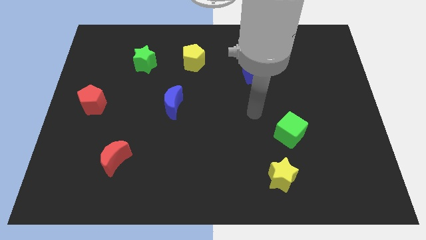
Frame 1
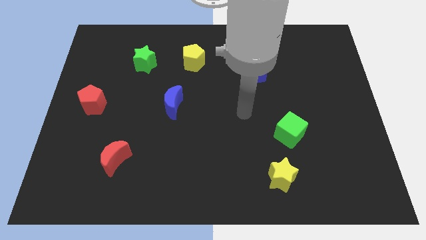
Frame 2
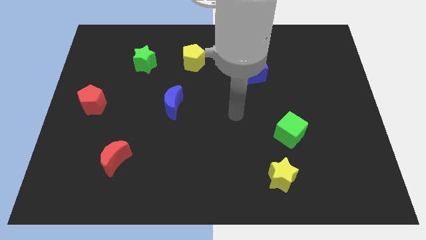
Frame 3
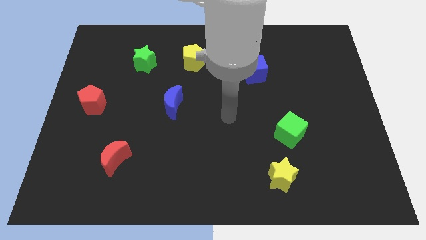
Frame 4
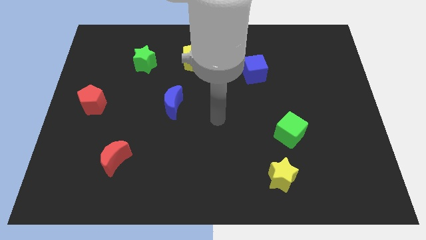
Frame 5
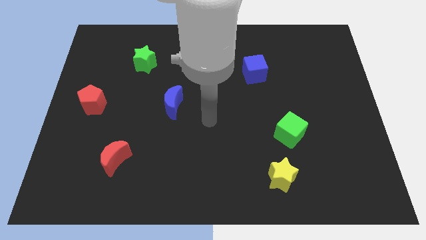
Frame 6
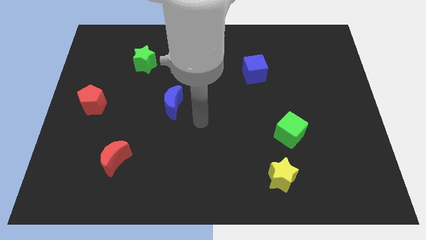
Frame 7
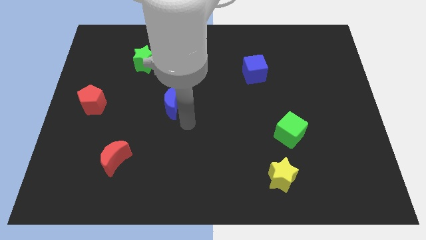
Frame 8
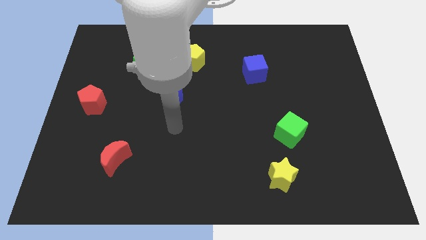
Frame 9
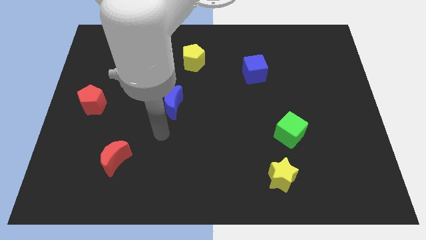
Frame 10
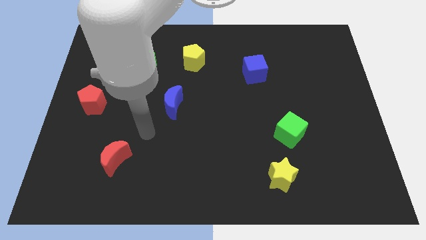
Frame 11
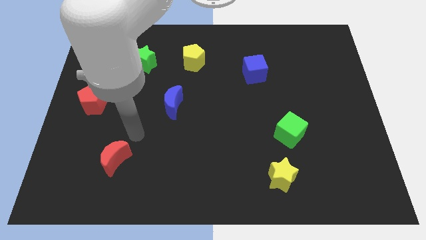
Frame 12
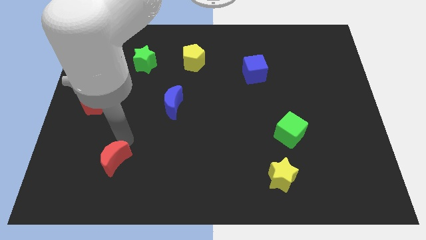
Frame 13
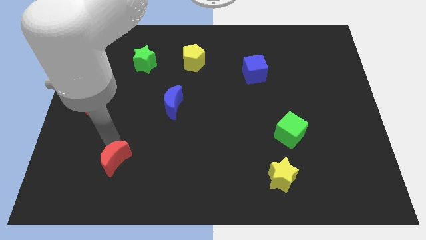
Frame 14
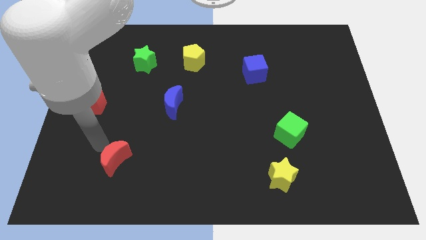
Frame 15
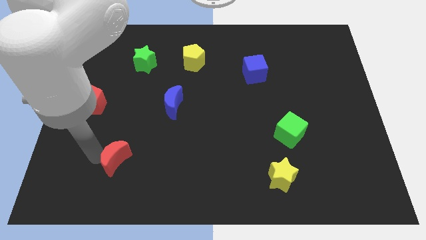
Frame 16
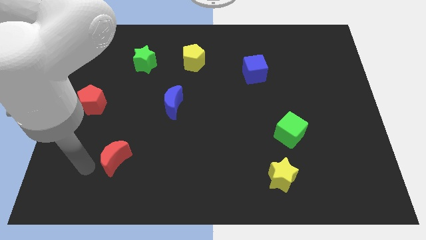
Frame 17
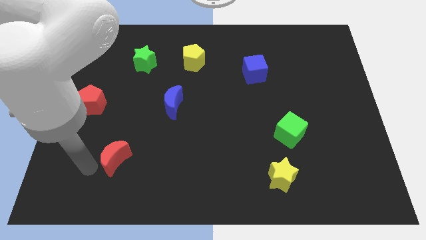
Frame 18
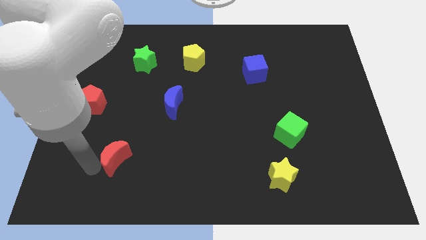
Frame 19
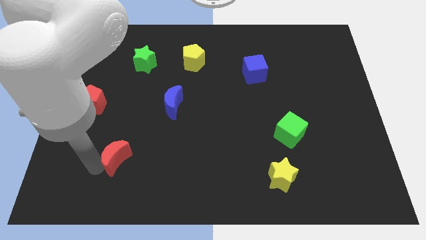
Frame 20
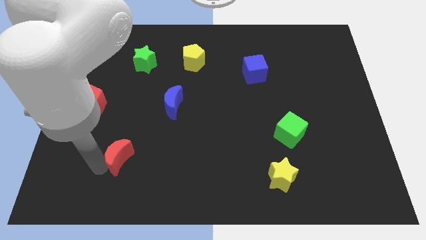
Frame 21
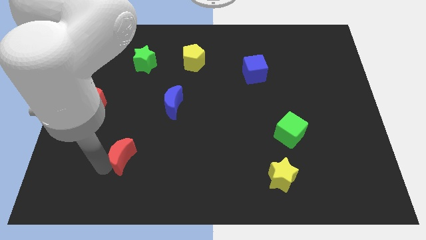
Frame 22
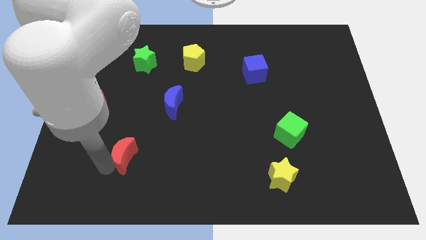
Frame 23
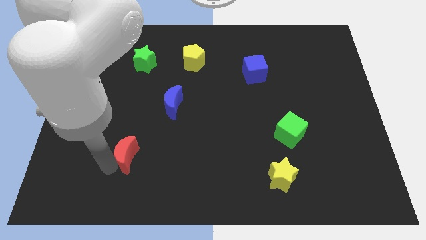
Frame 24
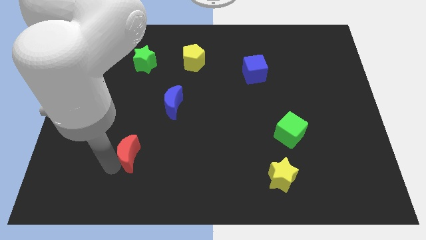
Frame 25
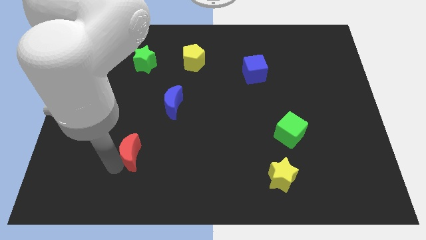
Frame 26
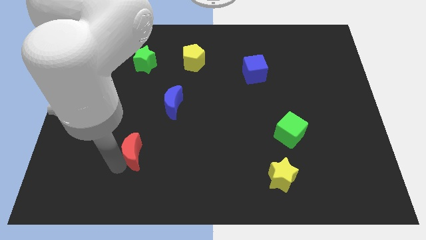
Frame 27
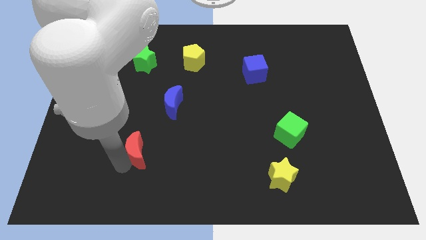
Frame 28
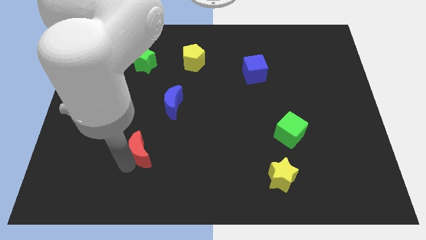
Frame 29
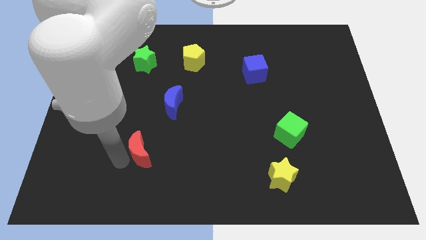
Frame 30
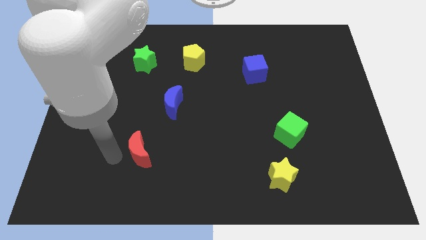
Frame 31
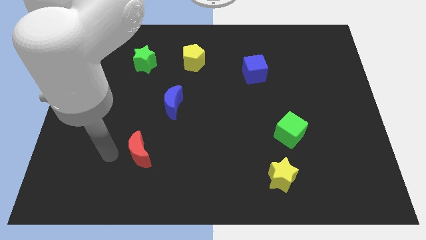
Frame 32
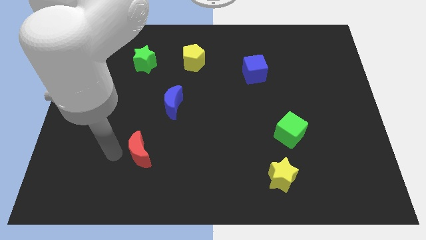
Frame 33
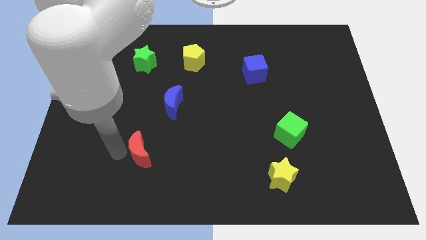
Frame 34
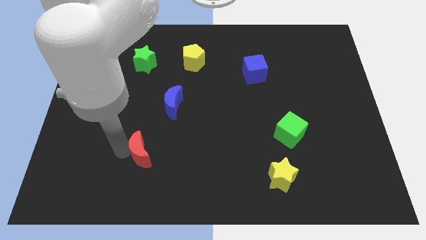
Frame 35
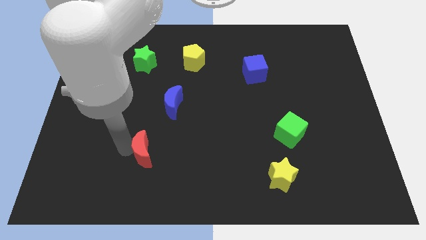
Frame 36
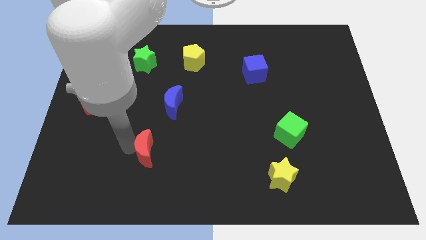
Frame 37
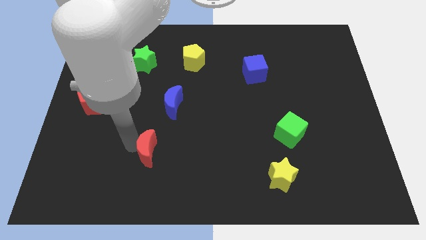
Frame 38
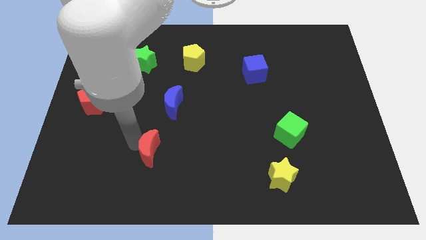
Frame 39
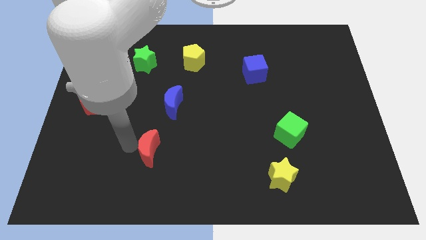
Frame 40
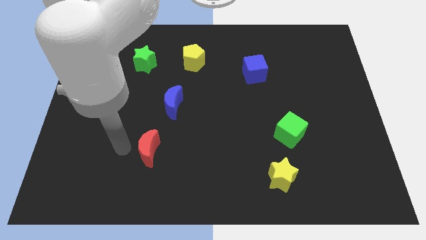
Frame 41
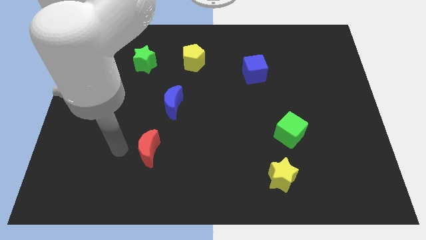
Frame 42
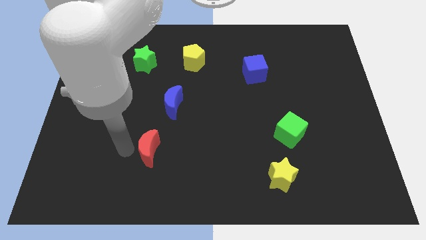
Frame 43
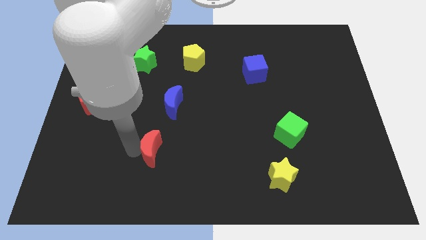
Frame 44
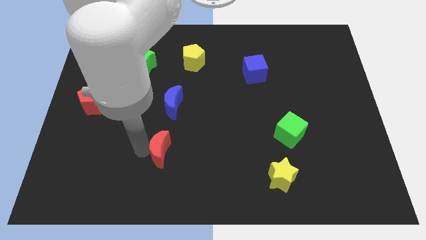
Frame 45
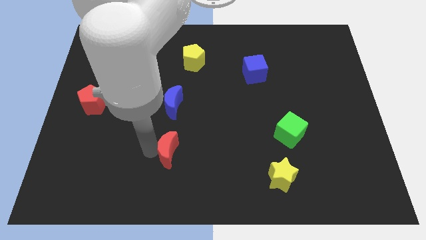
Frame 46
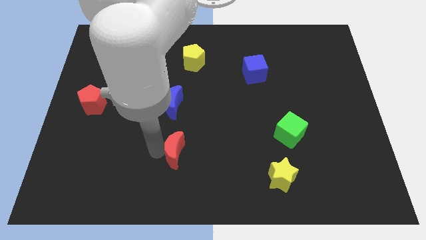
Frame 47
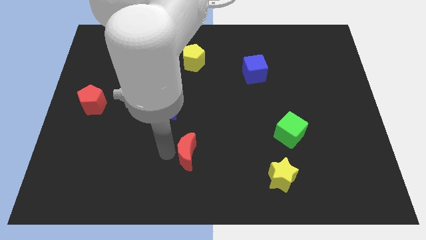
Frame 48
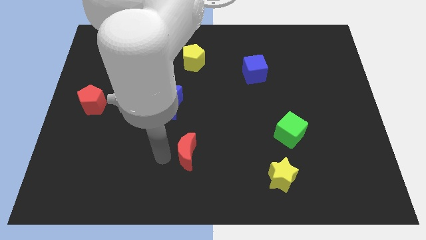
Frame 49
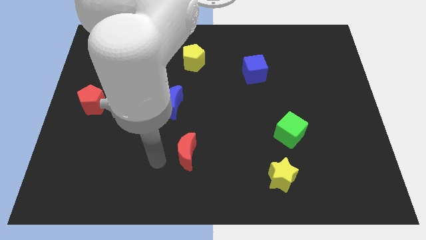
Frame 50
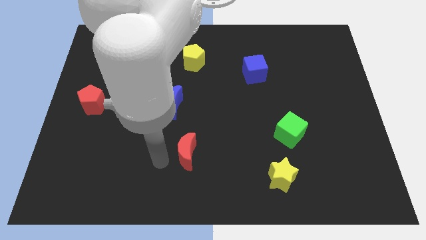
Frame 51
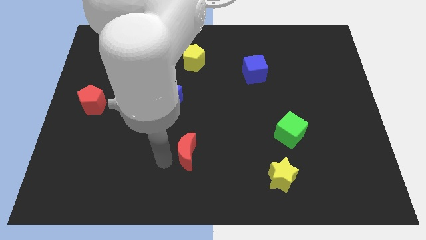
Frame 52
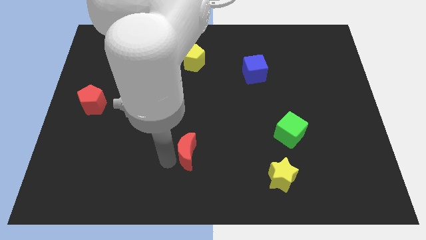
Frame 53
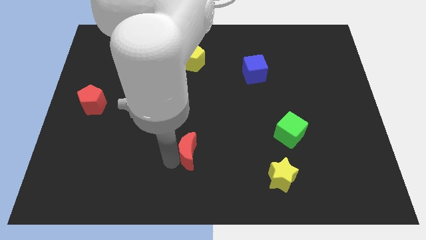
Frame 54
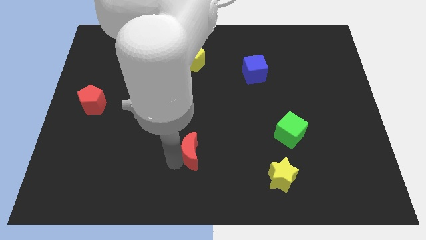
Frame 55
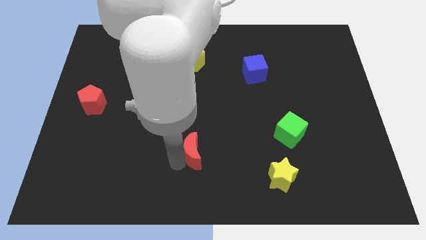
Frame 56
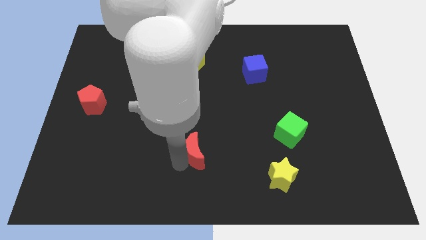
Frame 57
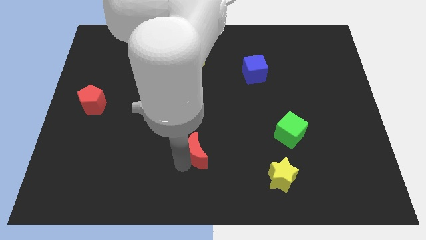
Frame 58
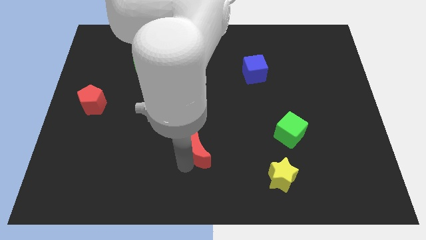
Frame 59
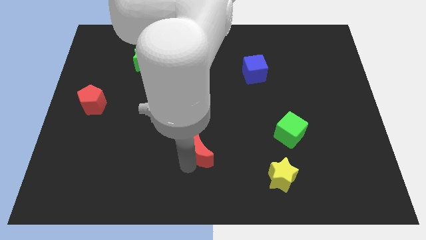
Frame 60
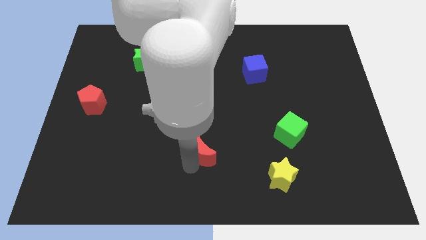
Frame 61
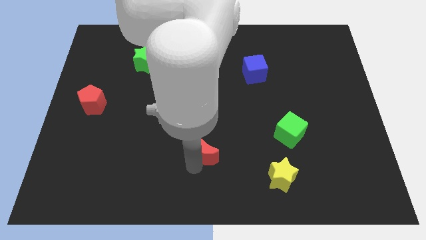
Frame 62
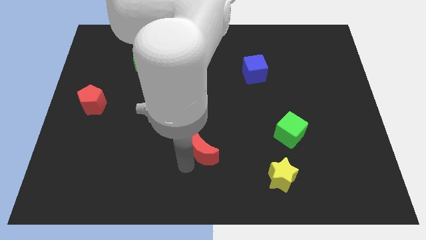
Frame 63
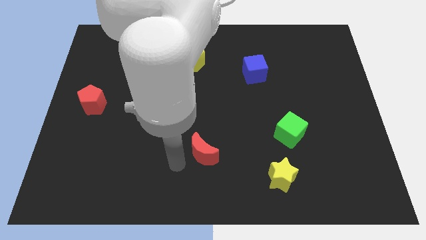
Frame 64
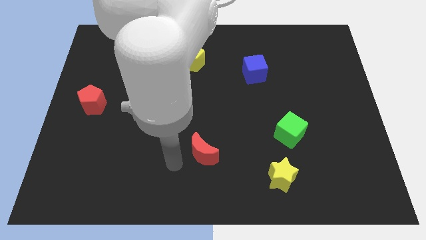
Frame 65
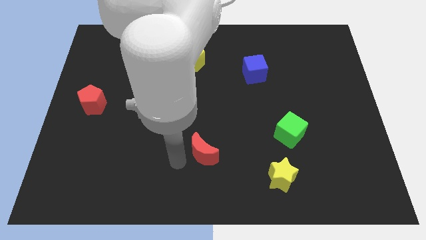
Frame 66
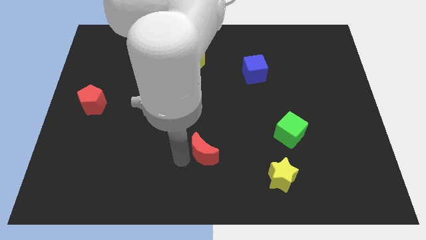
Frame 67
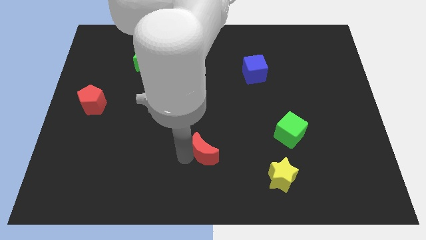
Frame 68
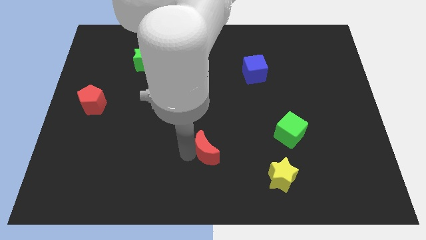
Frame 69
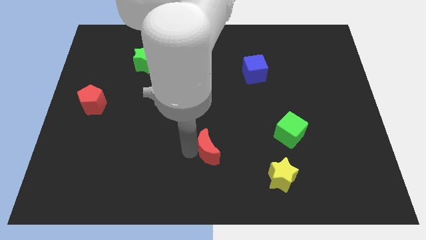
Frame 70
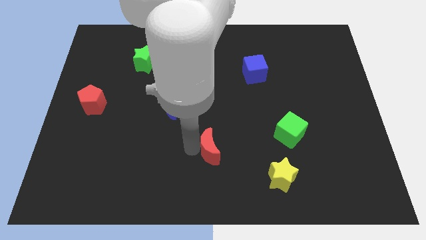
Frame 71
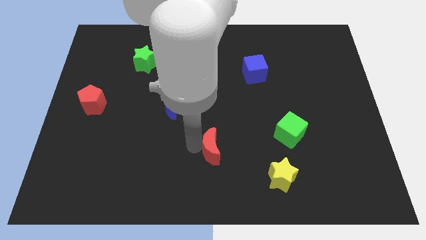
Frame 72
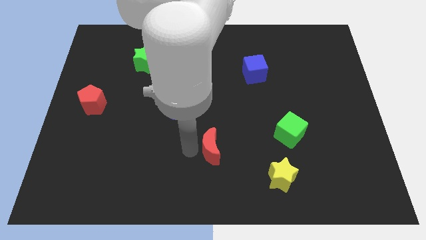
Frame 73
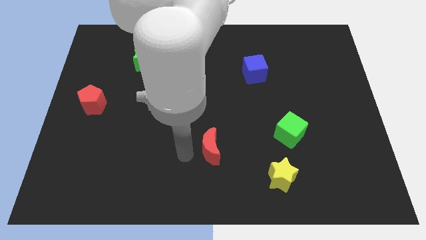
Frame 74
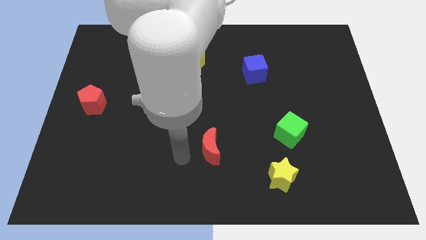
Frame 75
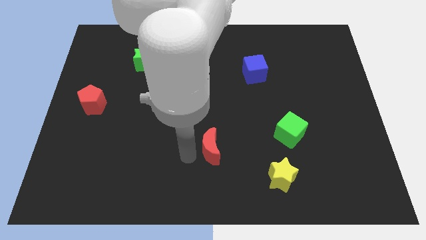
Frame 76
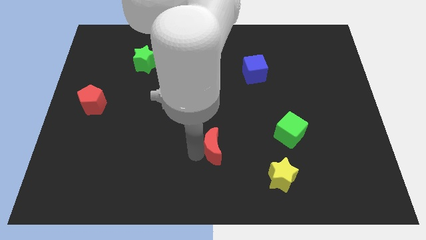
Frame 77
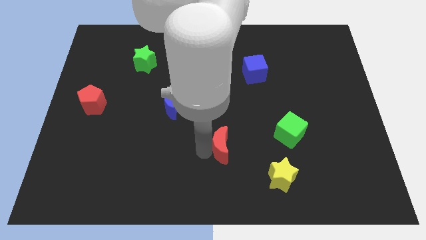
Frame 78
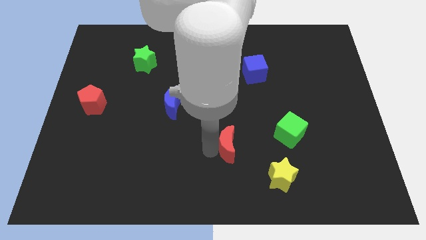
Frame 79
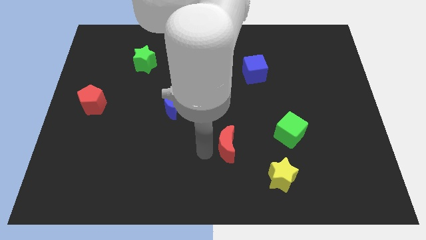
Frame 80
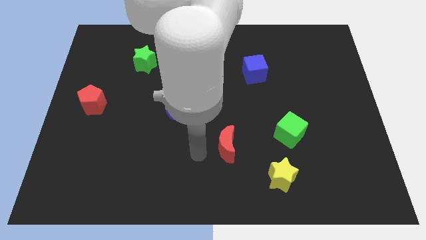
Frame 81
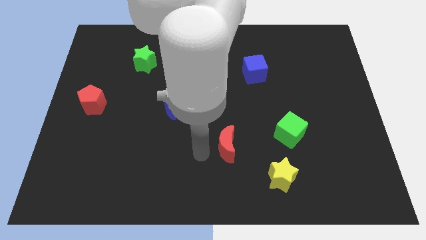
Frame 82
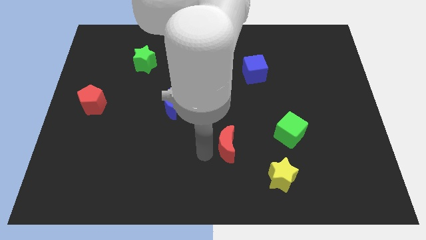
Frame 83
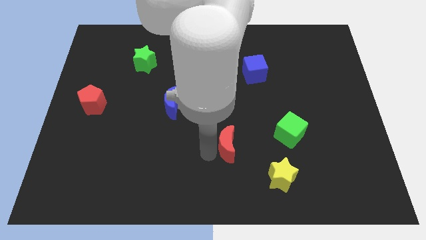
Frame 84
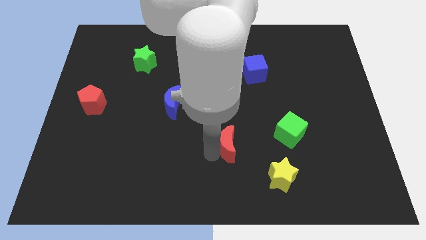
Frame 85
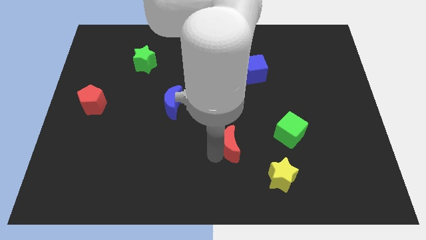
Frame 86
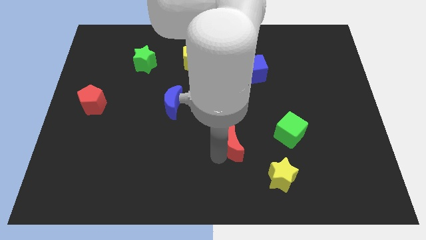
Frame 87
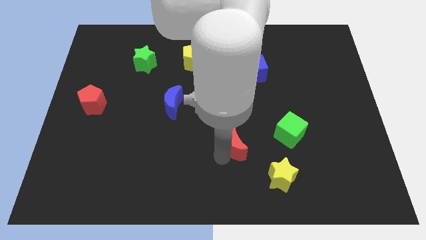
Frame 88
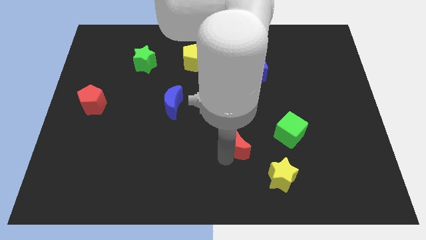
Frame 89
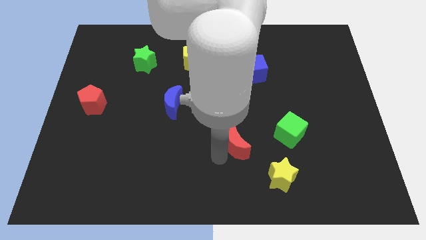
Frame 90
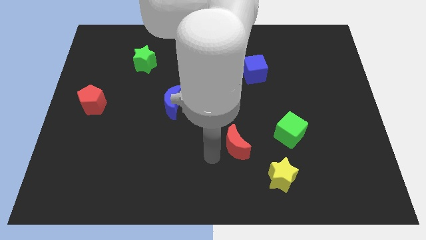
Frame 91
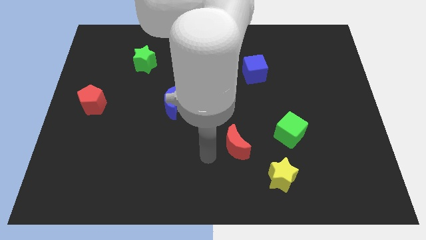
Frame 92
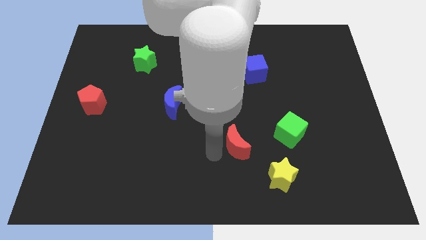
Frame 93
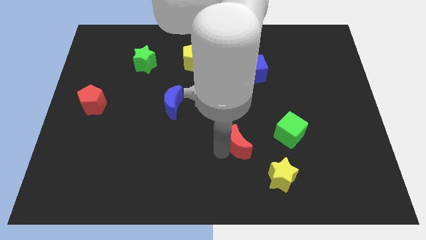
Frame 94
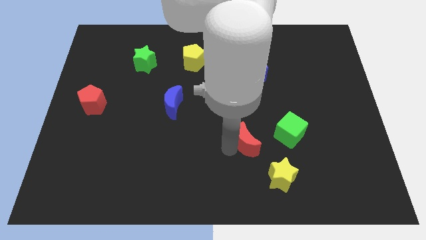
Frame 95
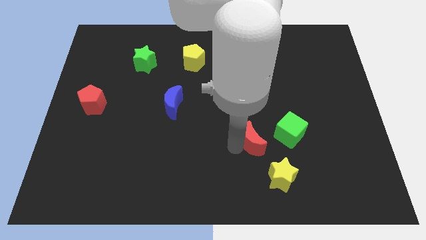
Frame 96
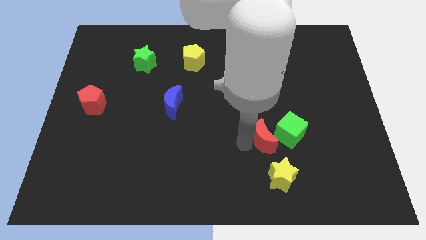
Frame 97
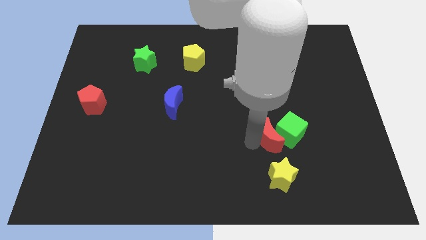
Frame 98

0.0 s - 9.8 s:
push the red moon to the green cube
